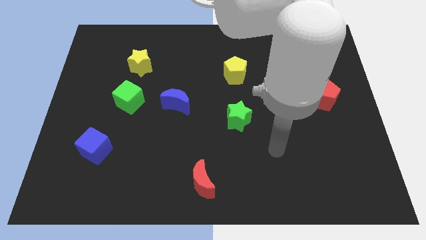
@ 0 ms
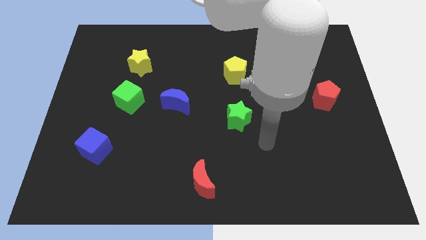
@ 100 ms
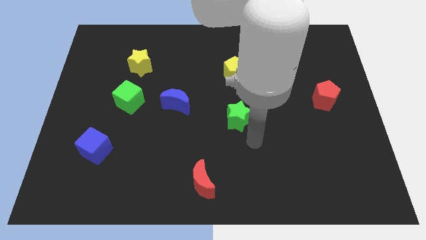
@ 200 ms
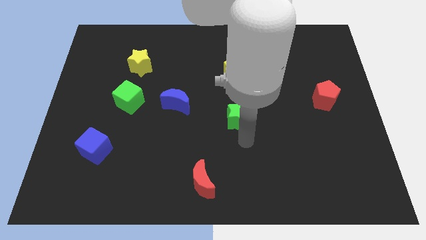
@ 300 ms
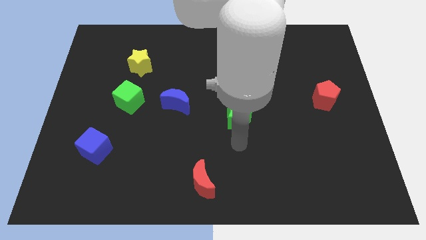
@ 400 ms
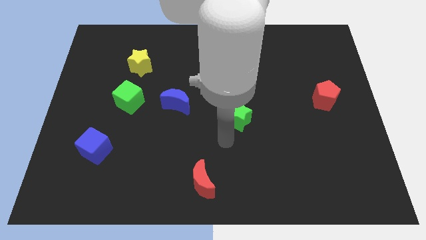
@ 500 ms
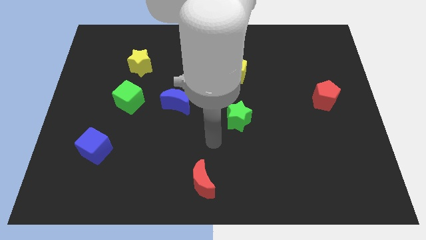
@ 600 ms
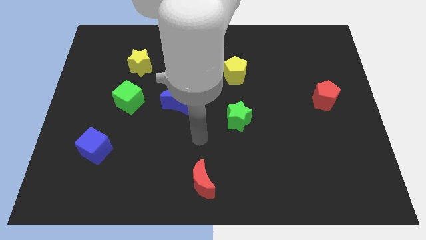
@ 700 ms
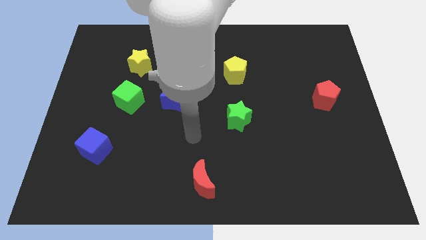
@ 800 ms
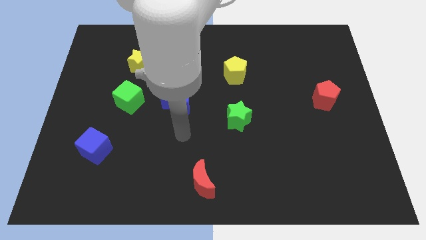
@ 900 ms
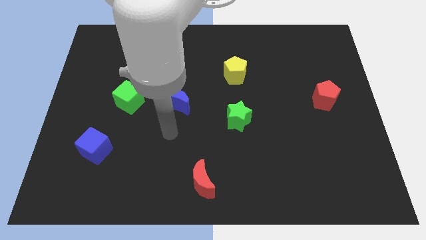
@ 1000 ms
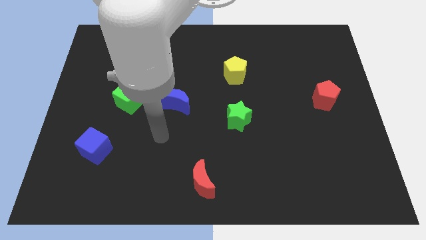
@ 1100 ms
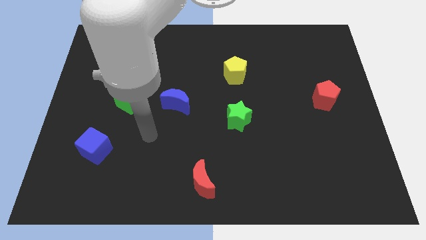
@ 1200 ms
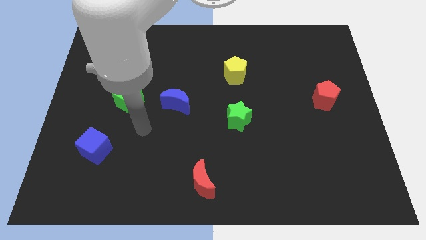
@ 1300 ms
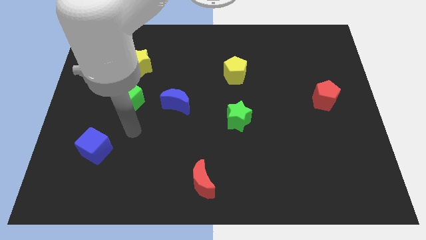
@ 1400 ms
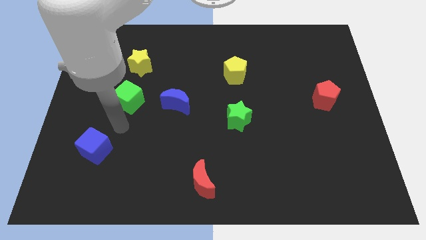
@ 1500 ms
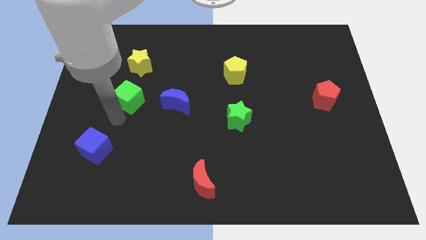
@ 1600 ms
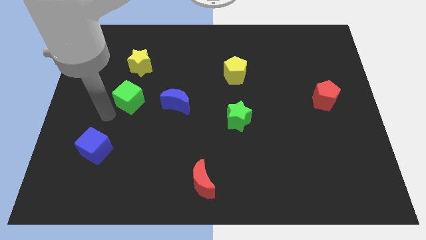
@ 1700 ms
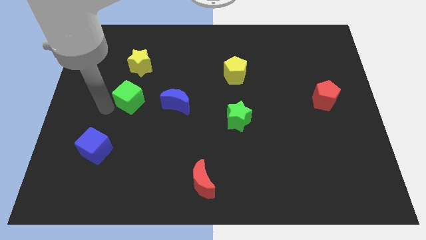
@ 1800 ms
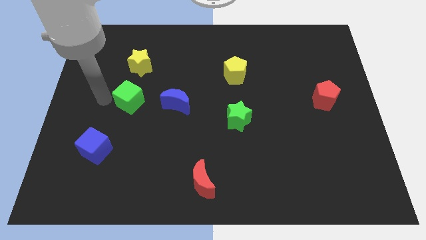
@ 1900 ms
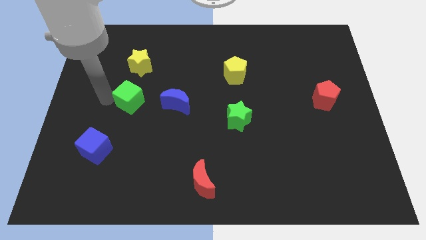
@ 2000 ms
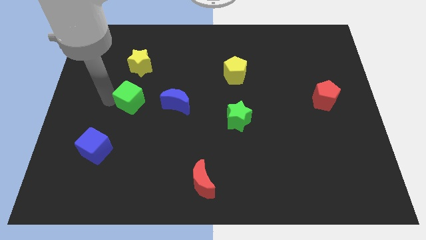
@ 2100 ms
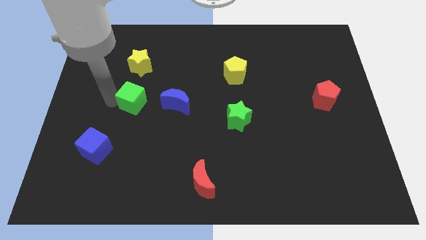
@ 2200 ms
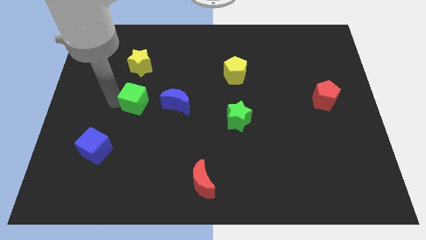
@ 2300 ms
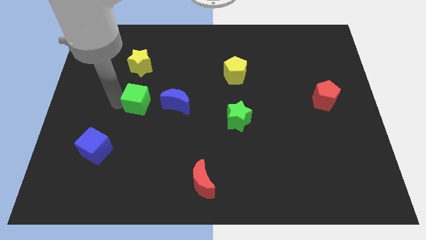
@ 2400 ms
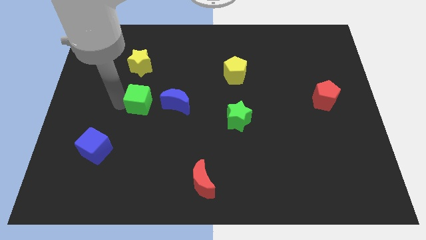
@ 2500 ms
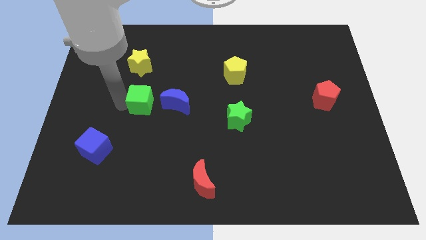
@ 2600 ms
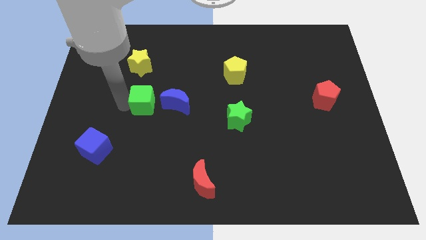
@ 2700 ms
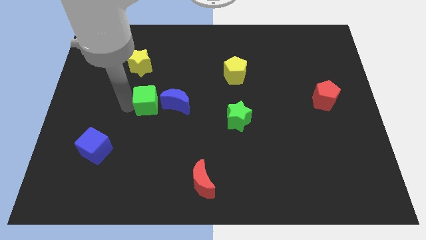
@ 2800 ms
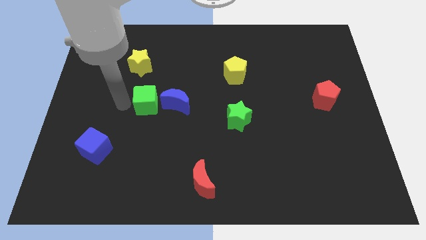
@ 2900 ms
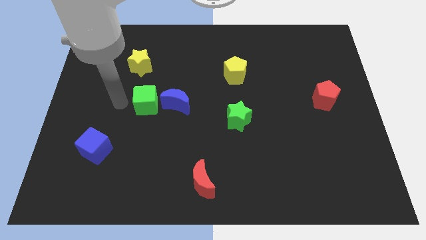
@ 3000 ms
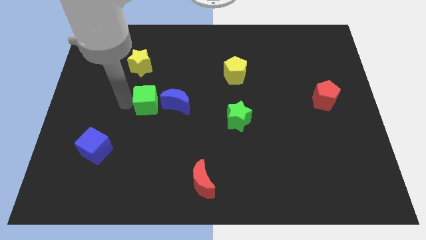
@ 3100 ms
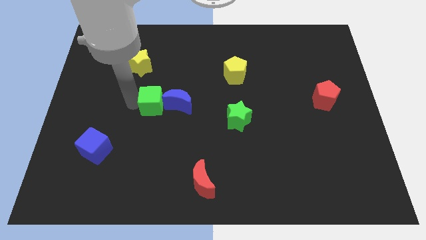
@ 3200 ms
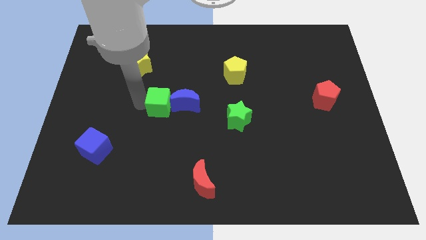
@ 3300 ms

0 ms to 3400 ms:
slide the green cube close to the blue moon

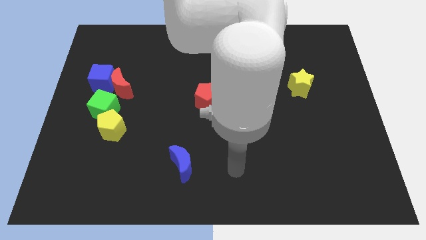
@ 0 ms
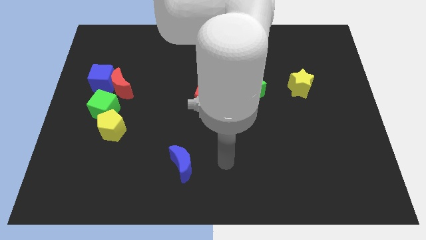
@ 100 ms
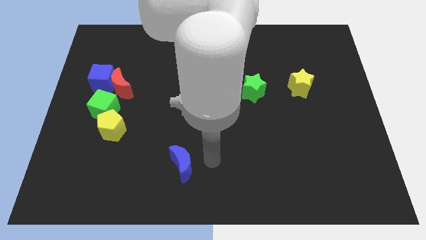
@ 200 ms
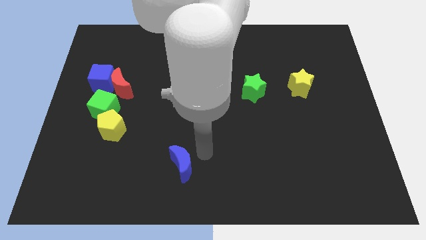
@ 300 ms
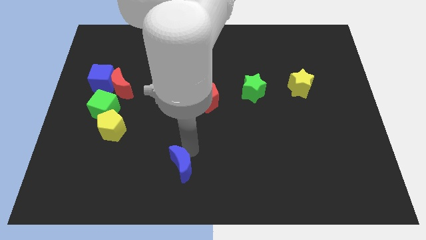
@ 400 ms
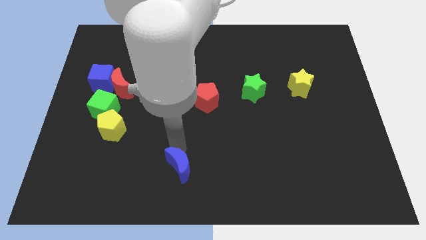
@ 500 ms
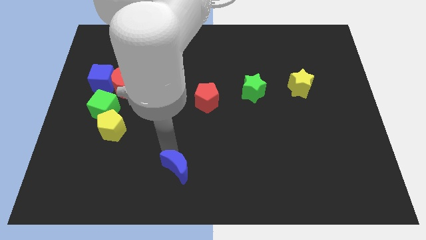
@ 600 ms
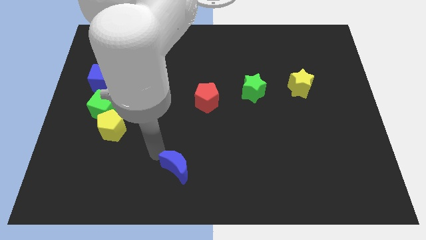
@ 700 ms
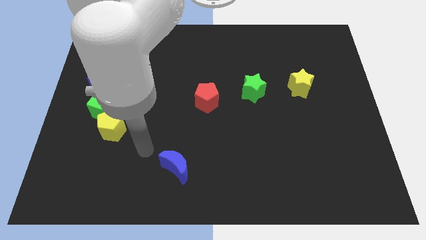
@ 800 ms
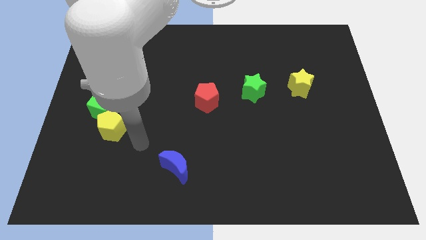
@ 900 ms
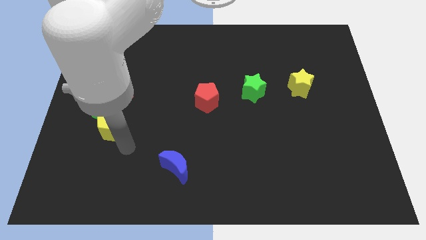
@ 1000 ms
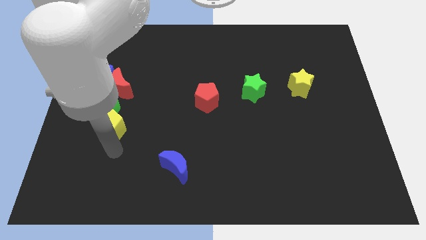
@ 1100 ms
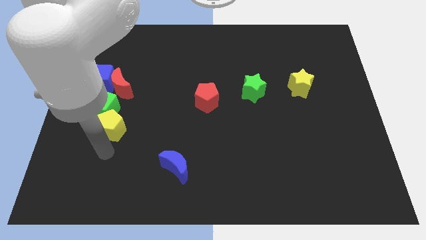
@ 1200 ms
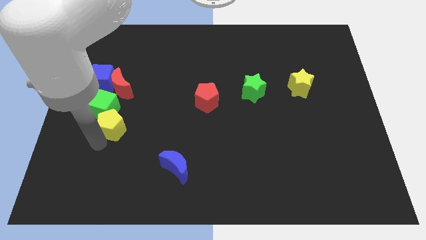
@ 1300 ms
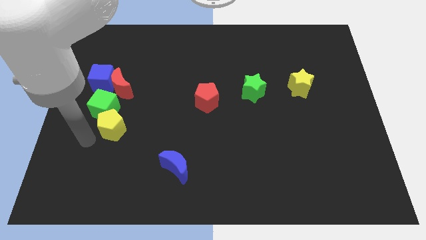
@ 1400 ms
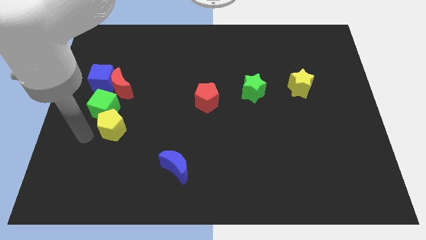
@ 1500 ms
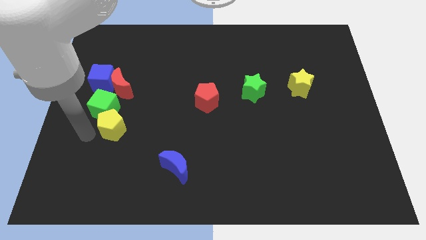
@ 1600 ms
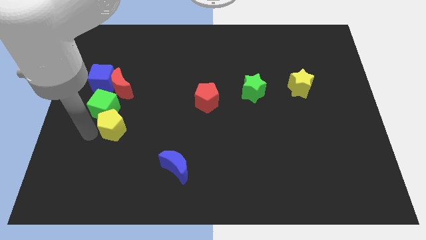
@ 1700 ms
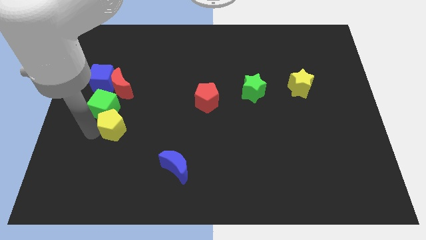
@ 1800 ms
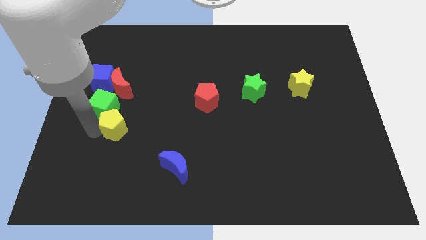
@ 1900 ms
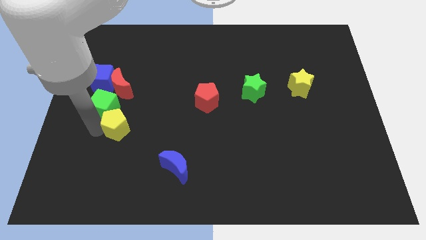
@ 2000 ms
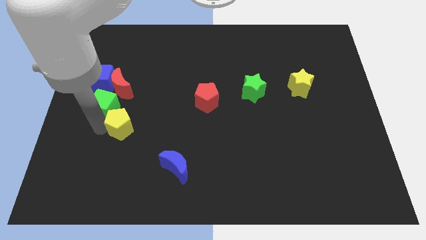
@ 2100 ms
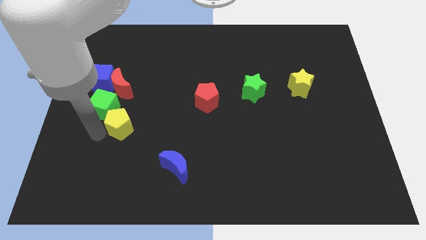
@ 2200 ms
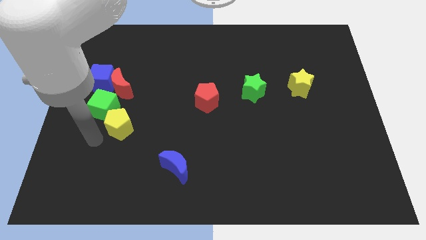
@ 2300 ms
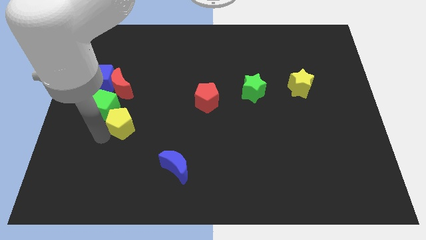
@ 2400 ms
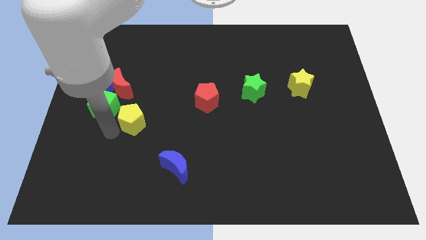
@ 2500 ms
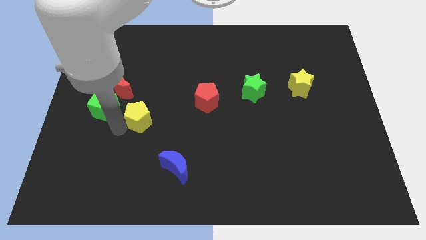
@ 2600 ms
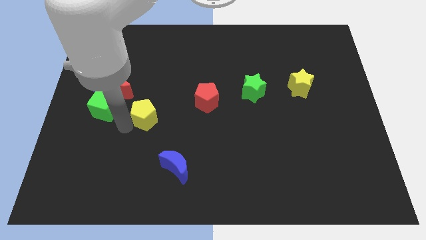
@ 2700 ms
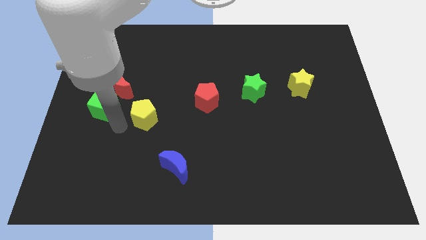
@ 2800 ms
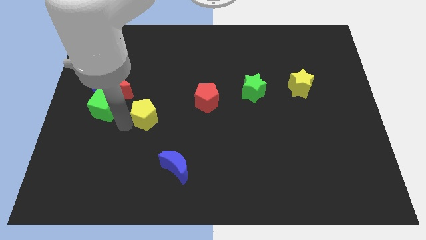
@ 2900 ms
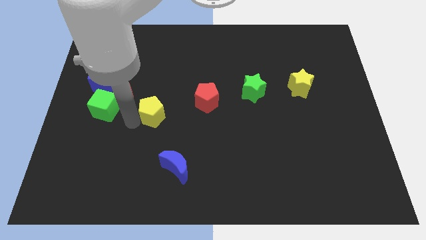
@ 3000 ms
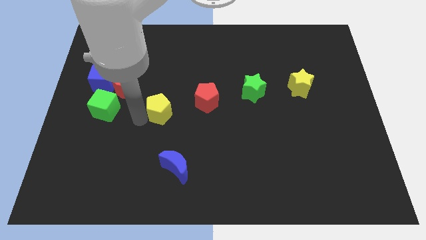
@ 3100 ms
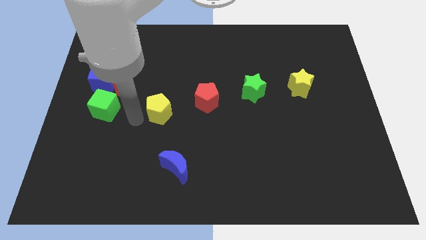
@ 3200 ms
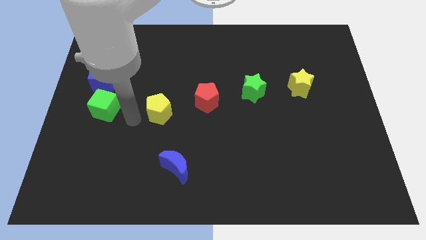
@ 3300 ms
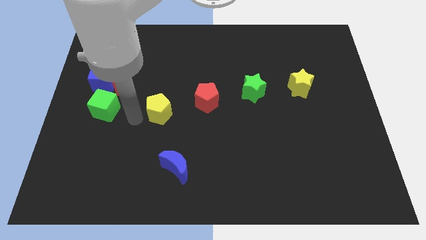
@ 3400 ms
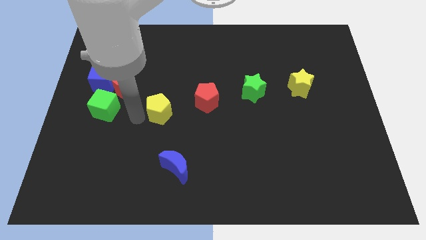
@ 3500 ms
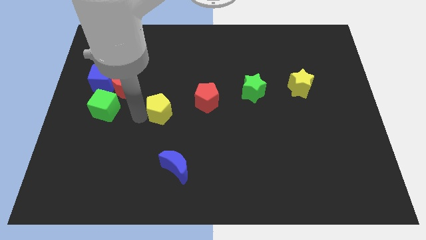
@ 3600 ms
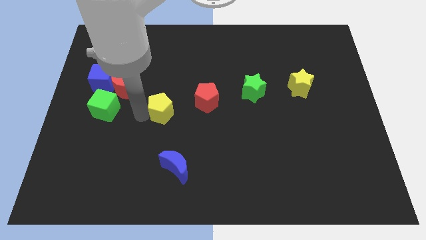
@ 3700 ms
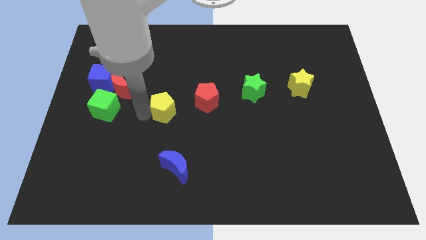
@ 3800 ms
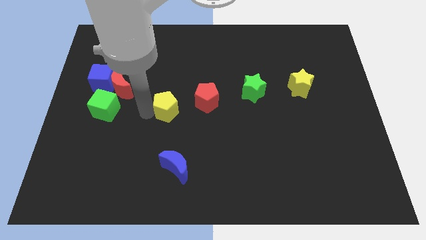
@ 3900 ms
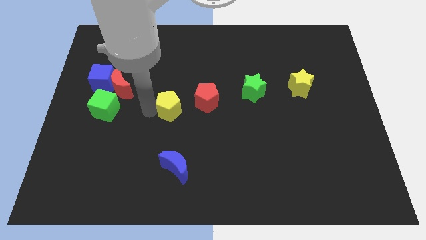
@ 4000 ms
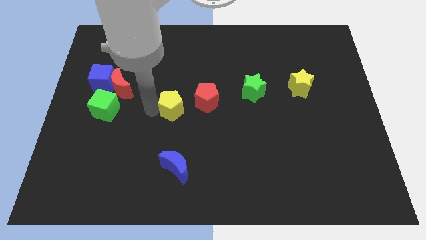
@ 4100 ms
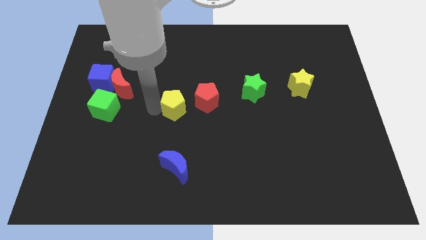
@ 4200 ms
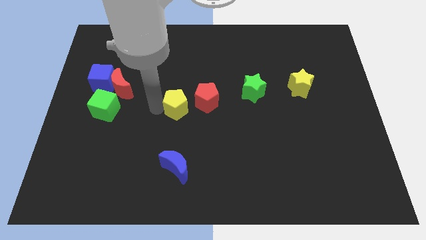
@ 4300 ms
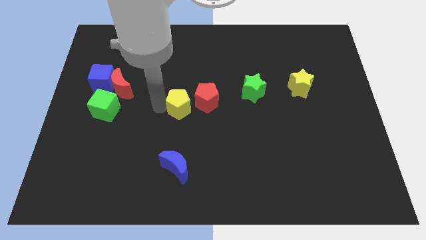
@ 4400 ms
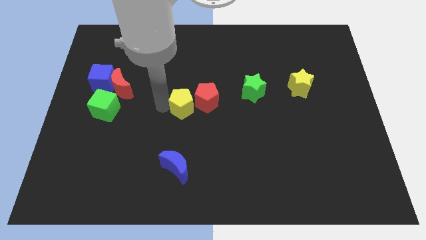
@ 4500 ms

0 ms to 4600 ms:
push the yellow pentagon towards the red pentagon
